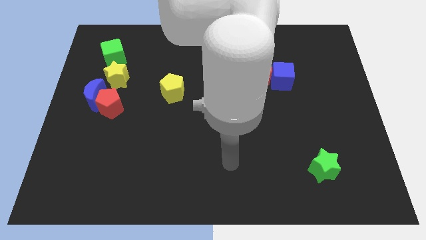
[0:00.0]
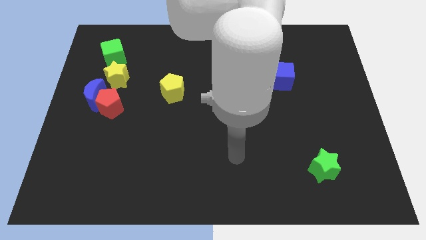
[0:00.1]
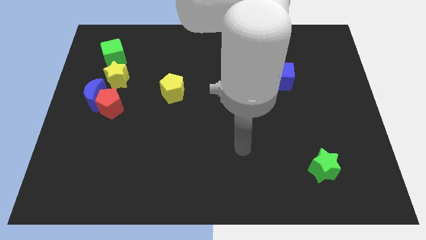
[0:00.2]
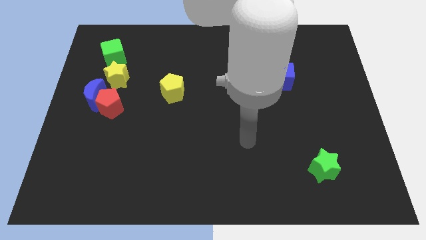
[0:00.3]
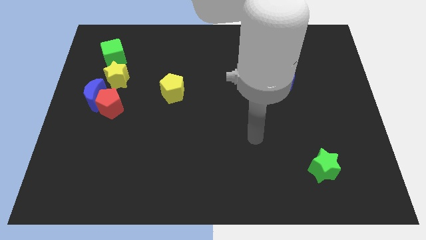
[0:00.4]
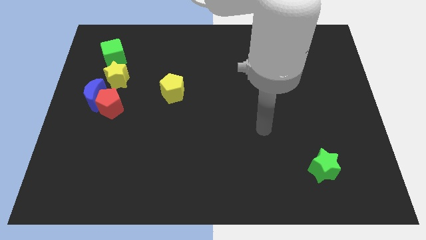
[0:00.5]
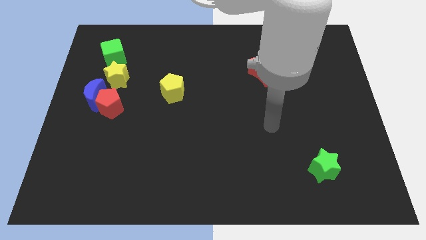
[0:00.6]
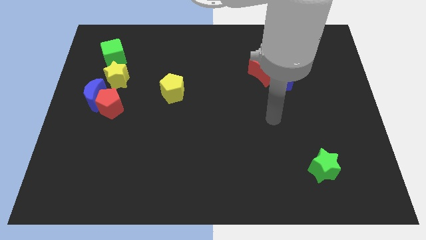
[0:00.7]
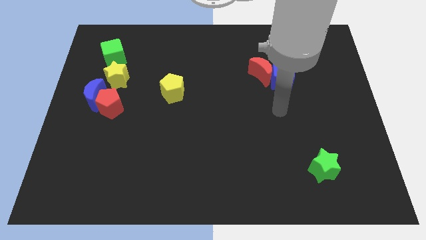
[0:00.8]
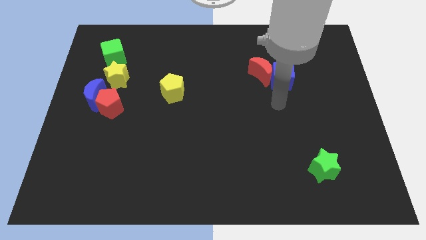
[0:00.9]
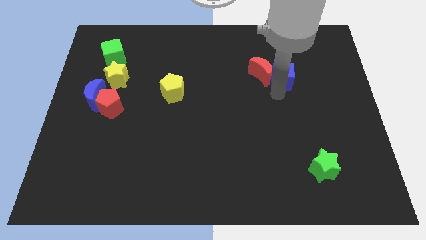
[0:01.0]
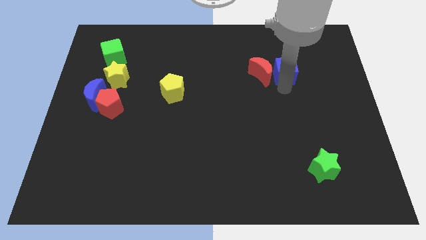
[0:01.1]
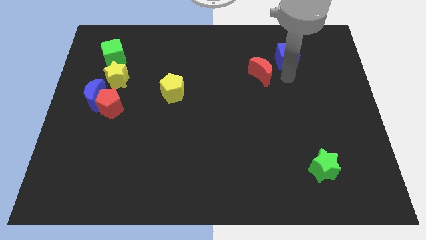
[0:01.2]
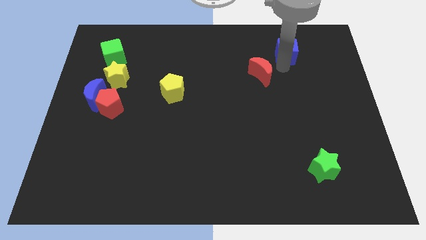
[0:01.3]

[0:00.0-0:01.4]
separate the red moon from the blue cube

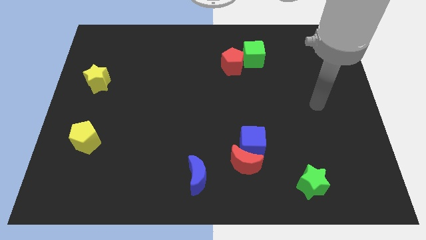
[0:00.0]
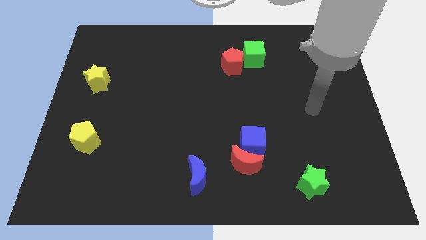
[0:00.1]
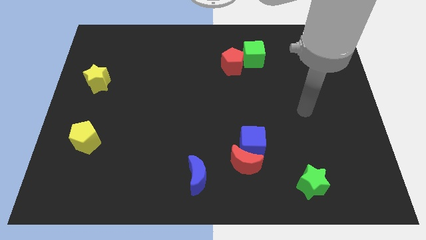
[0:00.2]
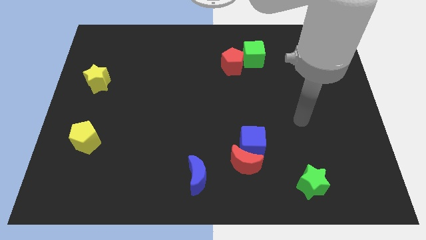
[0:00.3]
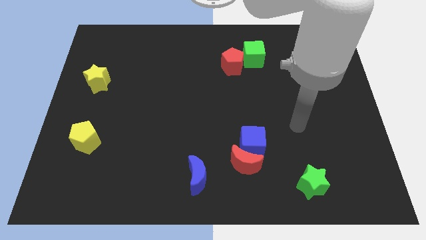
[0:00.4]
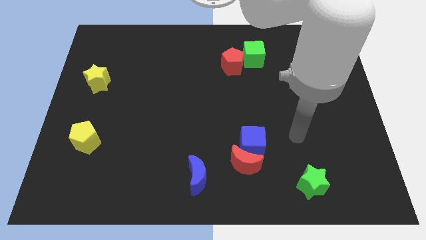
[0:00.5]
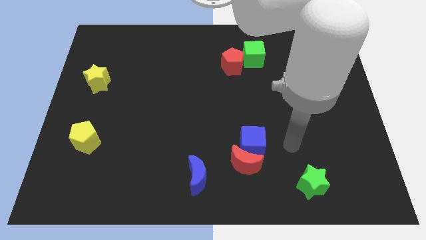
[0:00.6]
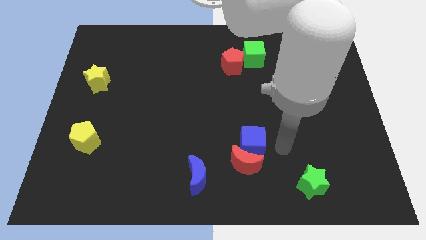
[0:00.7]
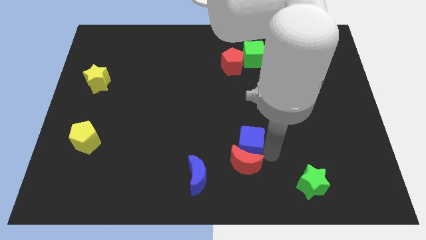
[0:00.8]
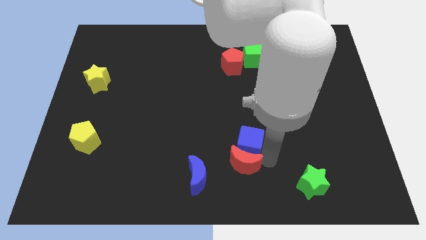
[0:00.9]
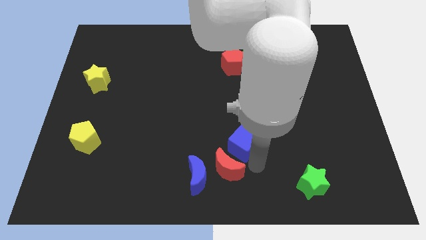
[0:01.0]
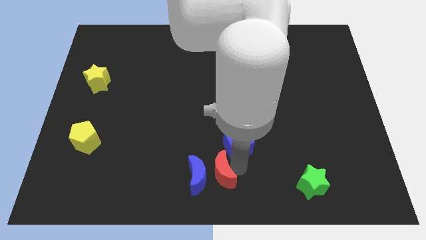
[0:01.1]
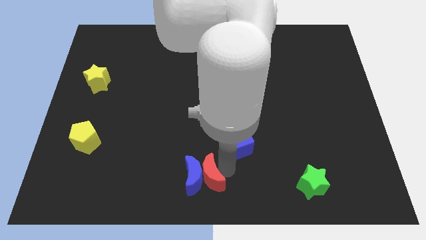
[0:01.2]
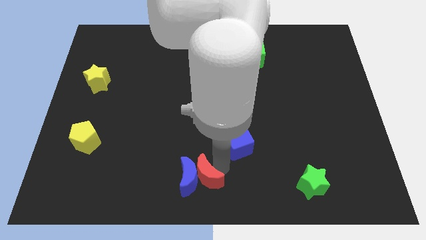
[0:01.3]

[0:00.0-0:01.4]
separate the blue cube from the red moon

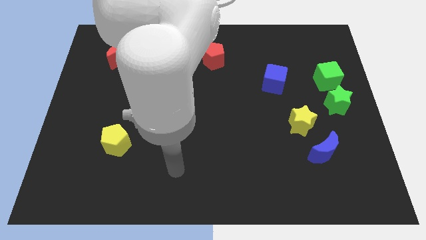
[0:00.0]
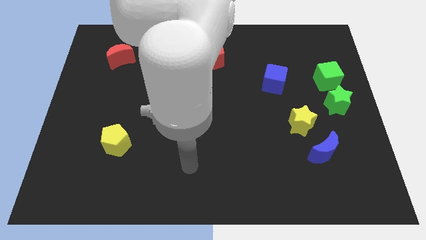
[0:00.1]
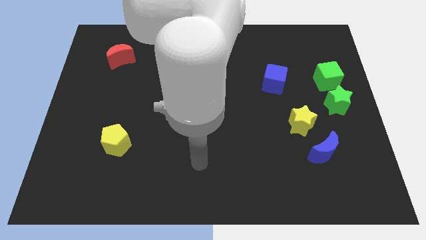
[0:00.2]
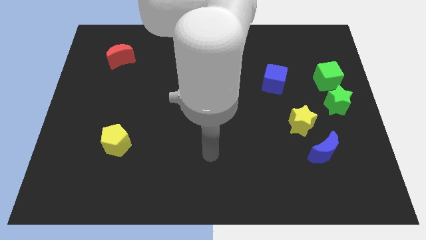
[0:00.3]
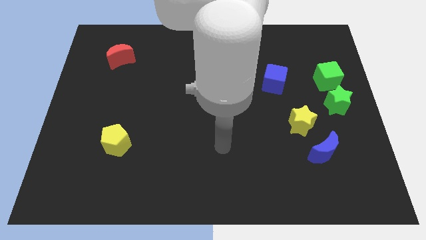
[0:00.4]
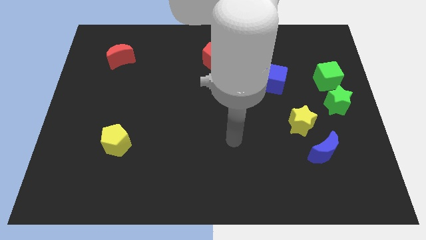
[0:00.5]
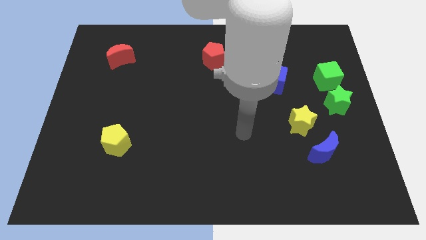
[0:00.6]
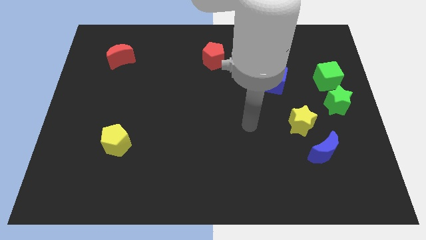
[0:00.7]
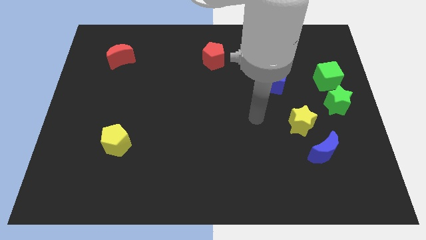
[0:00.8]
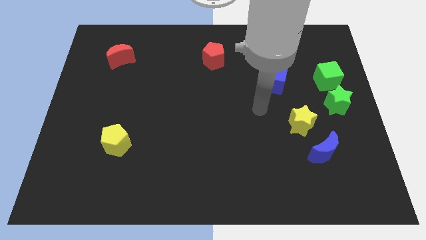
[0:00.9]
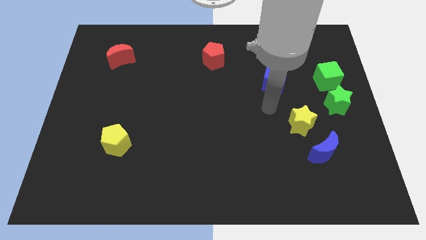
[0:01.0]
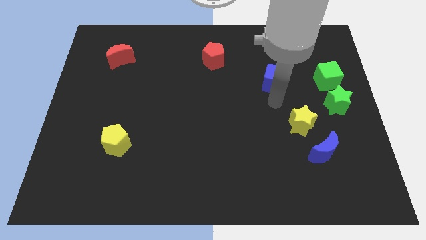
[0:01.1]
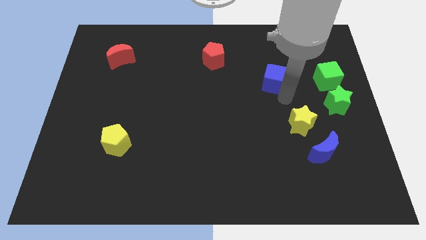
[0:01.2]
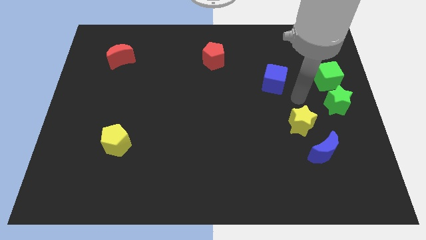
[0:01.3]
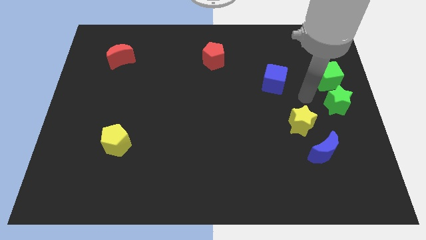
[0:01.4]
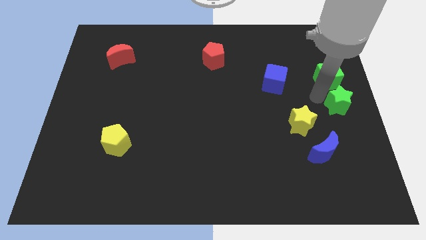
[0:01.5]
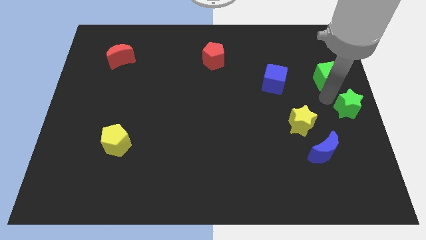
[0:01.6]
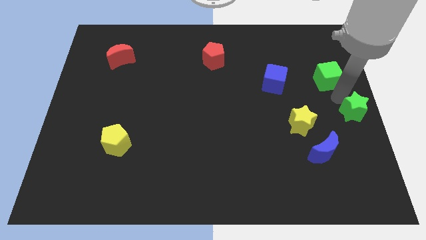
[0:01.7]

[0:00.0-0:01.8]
pull the green cube apart from the green star

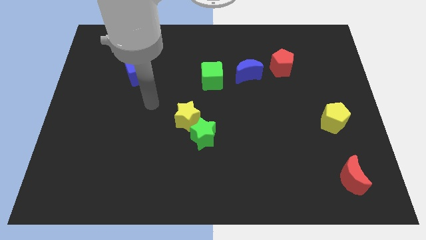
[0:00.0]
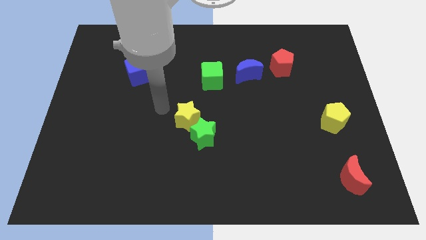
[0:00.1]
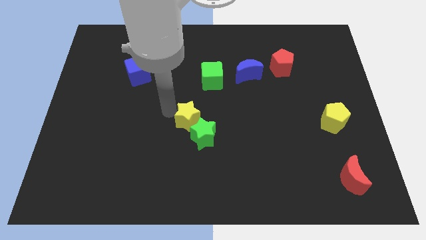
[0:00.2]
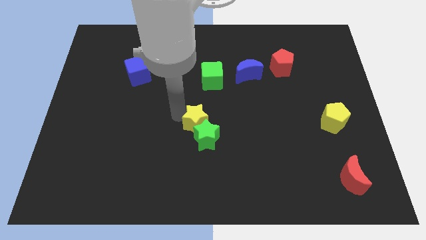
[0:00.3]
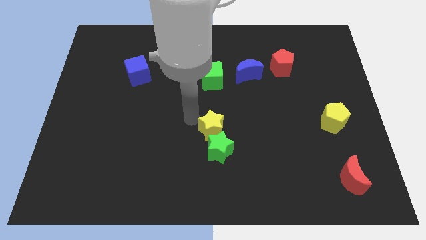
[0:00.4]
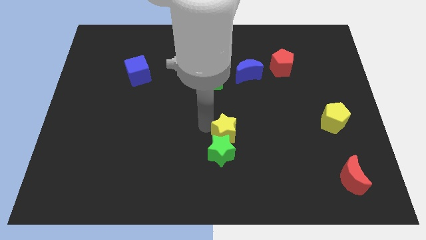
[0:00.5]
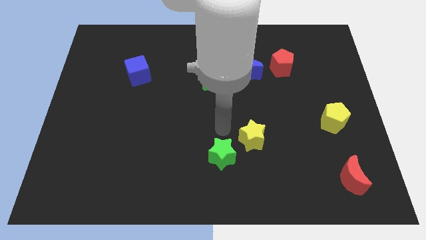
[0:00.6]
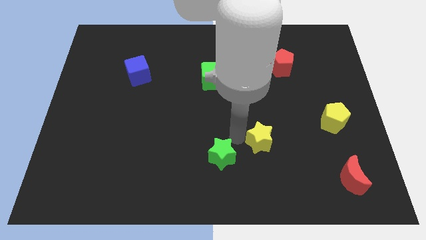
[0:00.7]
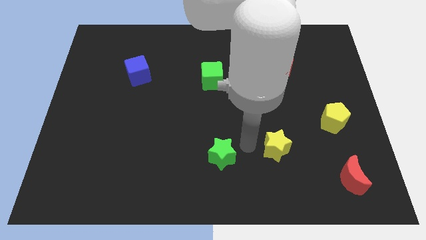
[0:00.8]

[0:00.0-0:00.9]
separate the green star from the yellow star

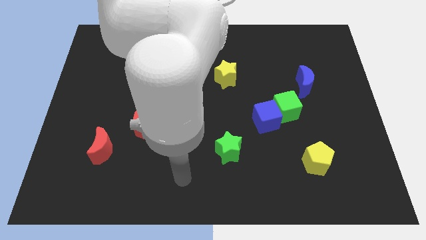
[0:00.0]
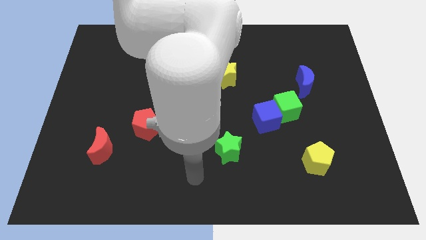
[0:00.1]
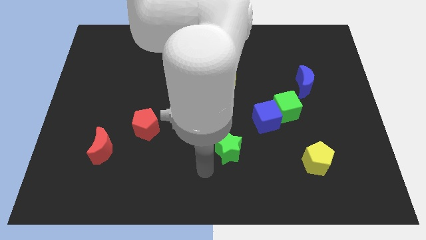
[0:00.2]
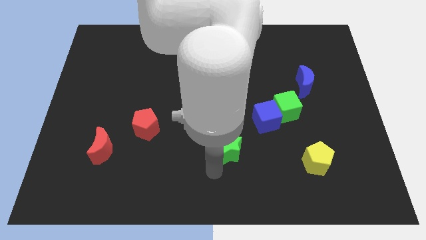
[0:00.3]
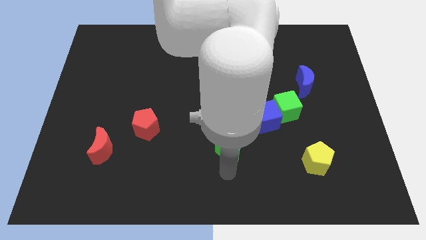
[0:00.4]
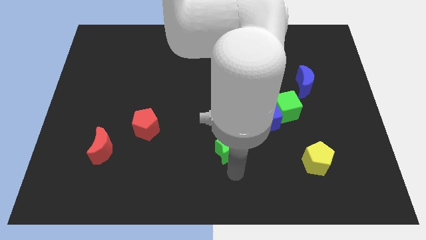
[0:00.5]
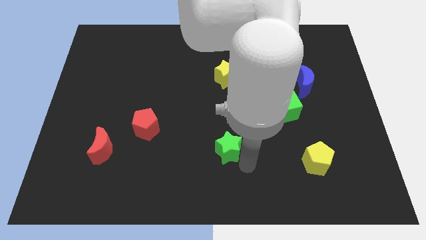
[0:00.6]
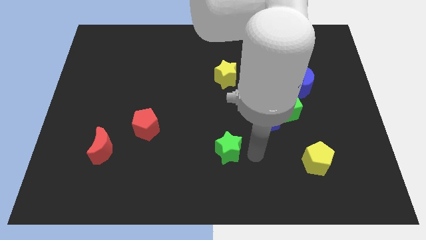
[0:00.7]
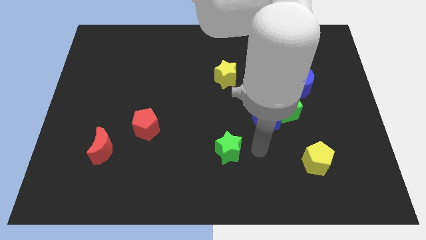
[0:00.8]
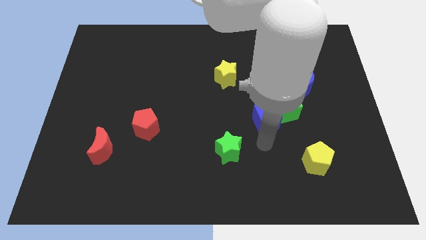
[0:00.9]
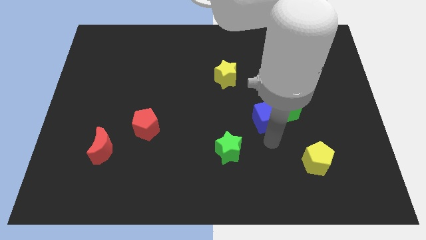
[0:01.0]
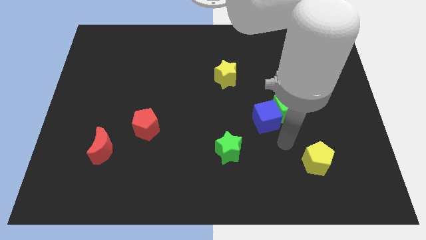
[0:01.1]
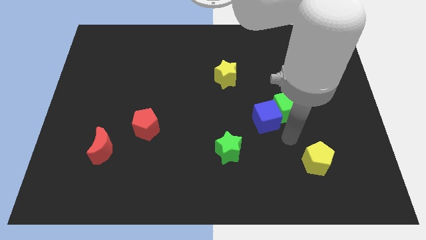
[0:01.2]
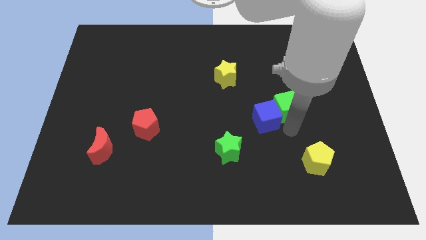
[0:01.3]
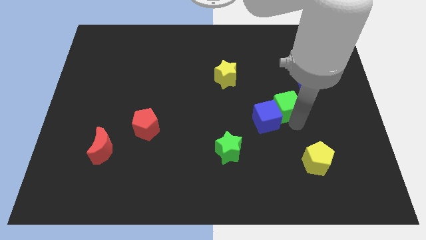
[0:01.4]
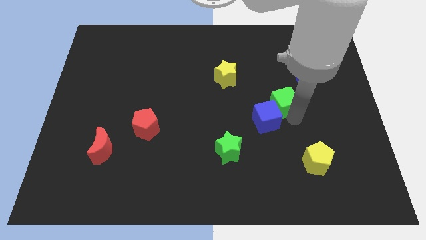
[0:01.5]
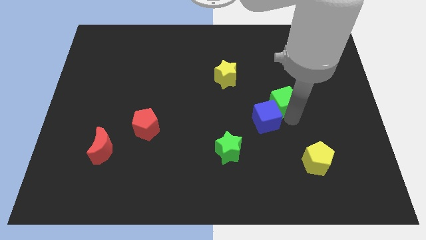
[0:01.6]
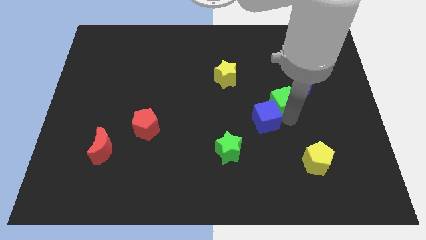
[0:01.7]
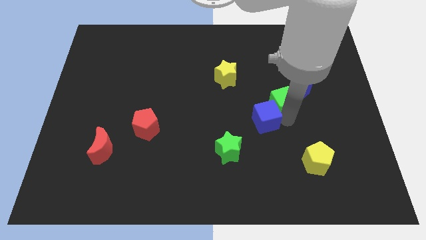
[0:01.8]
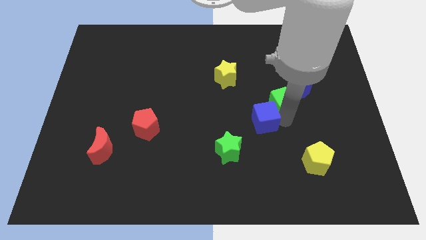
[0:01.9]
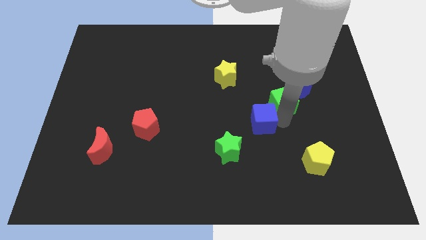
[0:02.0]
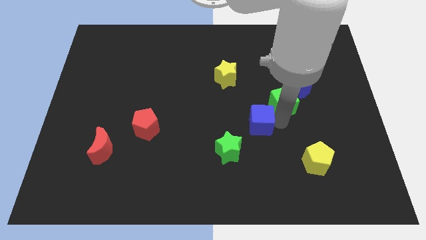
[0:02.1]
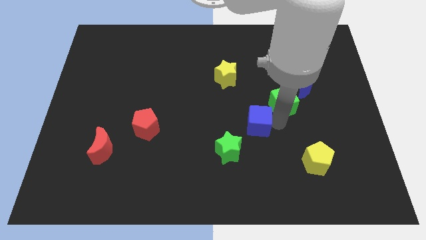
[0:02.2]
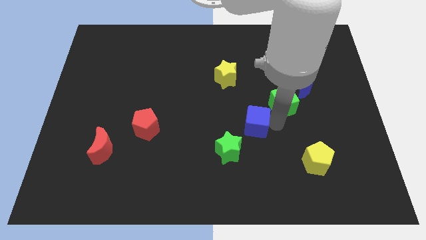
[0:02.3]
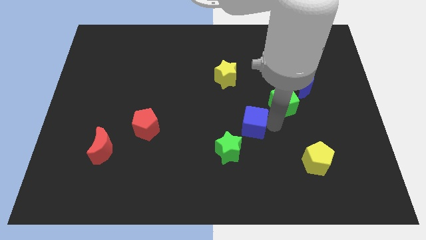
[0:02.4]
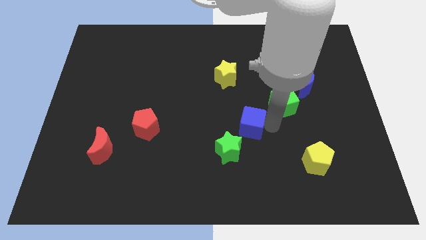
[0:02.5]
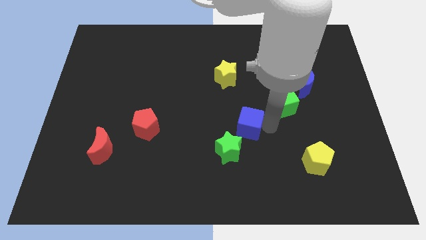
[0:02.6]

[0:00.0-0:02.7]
move the blue cube away from the green cube

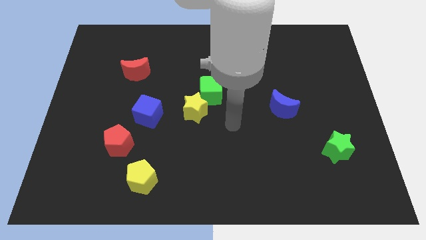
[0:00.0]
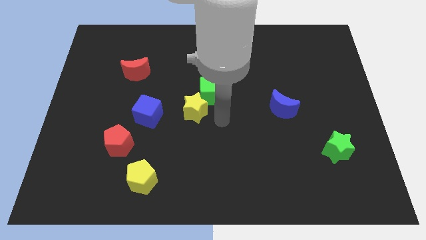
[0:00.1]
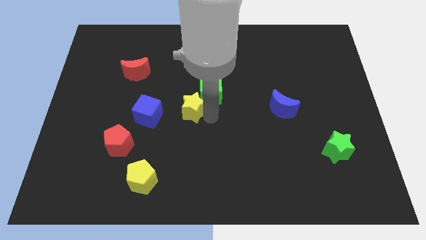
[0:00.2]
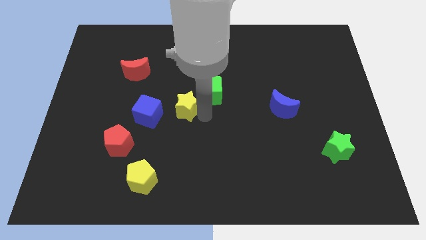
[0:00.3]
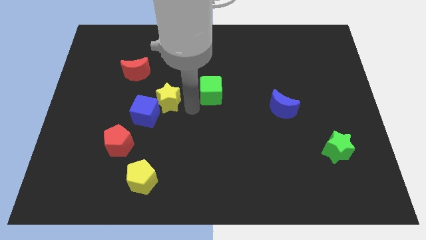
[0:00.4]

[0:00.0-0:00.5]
separate the green cube from the yellow star

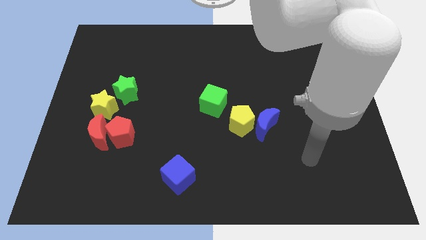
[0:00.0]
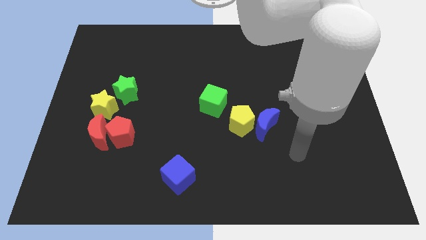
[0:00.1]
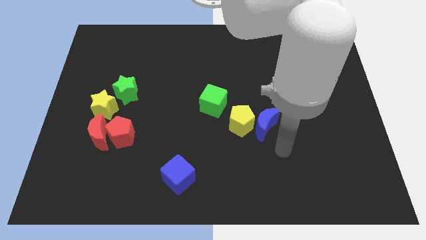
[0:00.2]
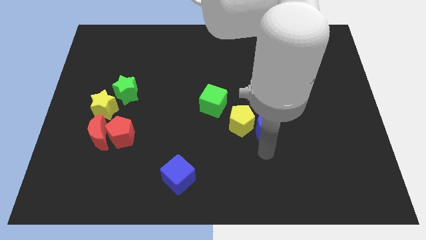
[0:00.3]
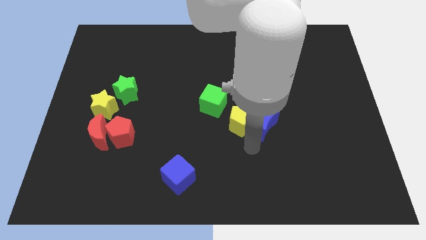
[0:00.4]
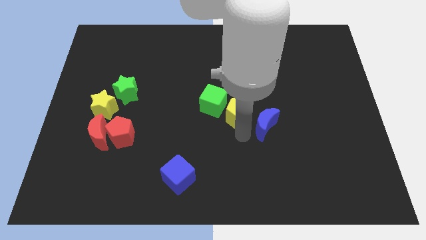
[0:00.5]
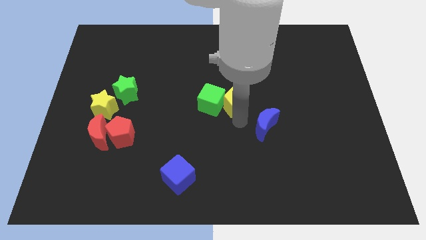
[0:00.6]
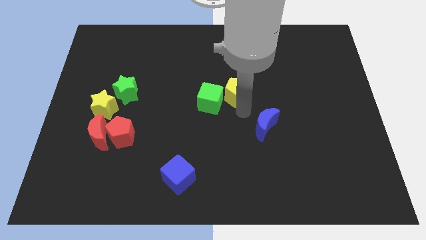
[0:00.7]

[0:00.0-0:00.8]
move the blue moon away from the yellow pentagon
